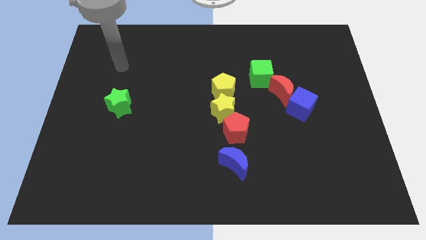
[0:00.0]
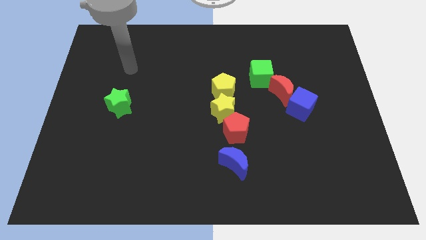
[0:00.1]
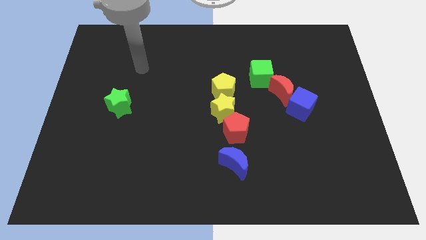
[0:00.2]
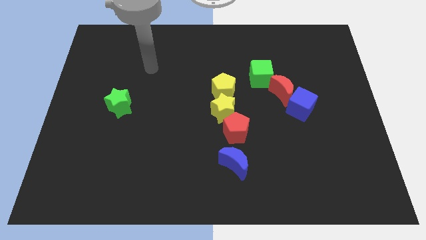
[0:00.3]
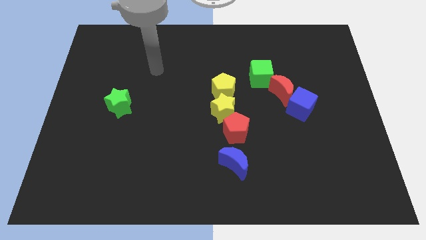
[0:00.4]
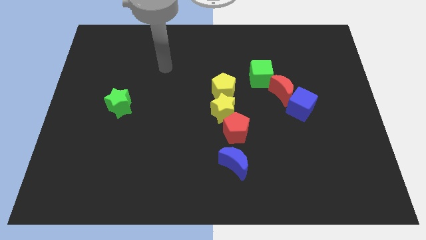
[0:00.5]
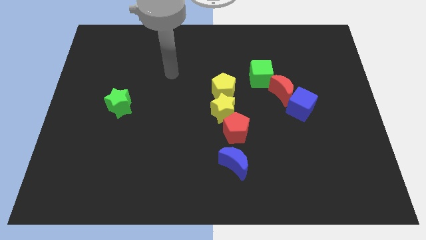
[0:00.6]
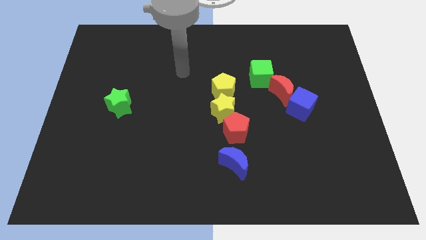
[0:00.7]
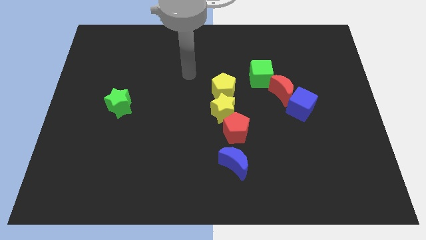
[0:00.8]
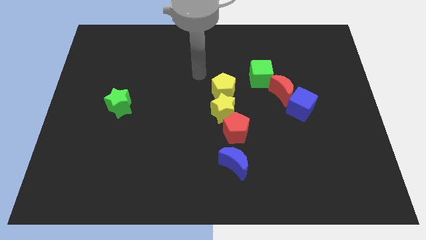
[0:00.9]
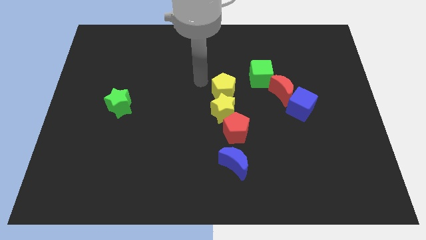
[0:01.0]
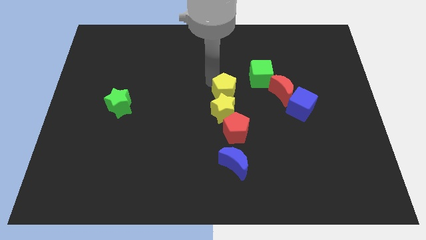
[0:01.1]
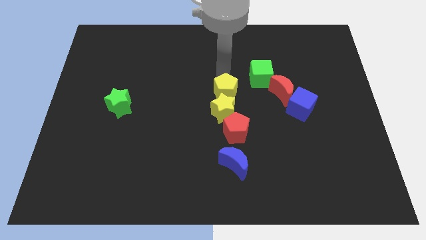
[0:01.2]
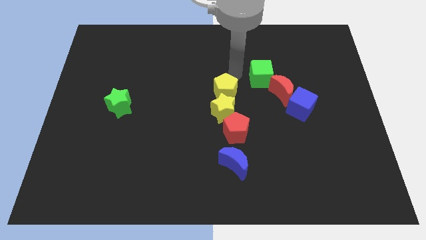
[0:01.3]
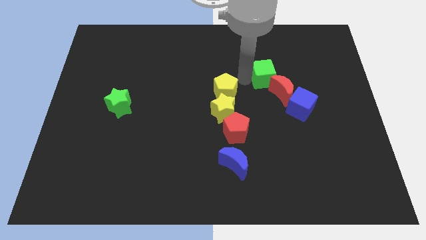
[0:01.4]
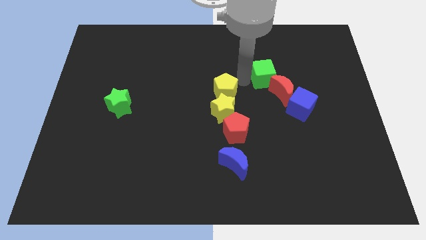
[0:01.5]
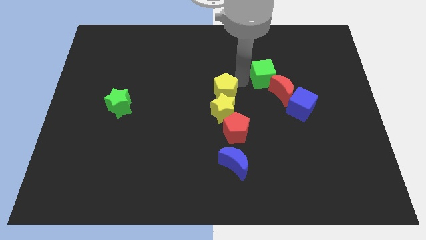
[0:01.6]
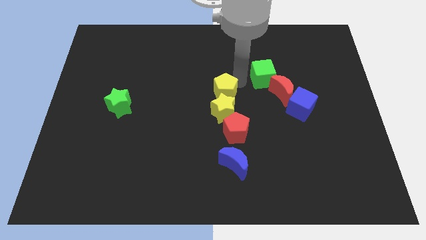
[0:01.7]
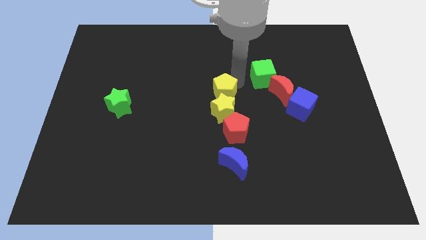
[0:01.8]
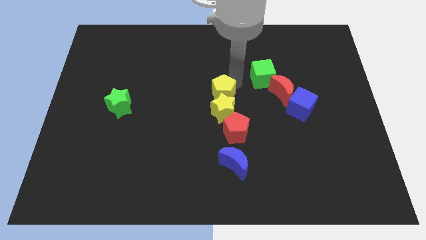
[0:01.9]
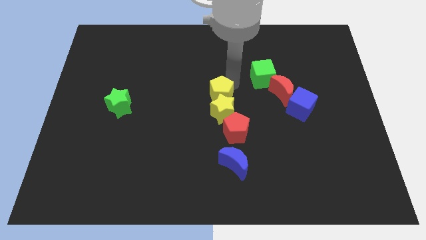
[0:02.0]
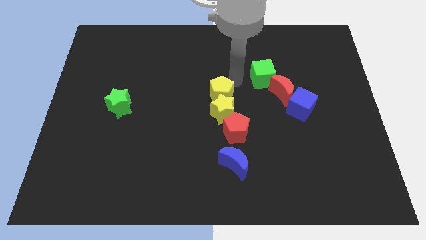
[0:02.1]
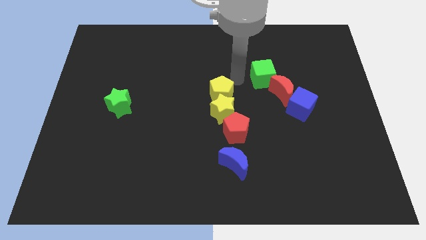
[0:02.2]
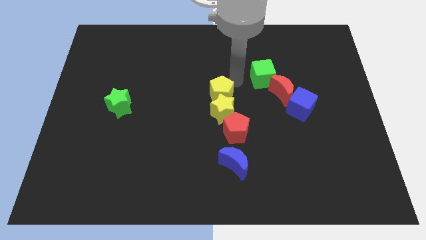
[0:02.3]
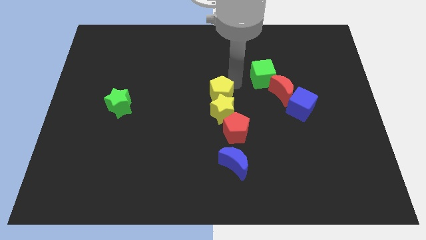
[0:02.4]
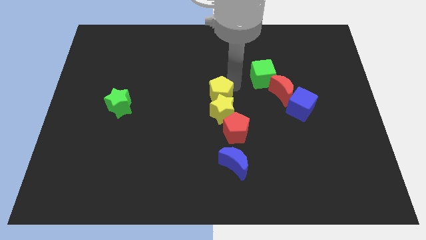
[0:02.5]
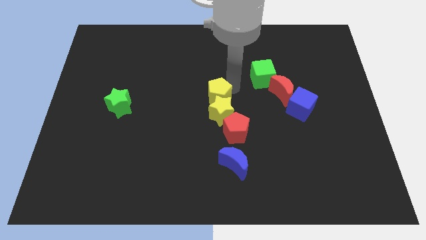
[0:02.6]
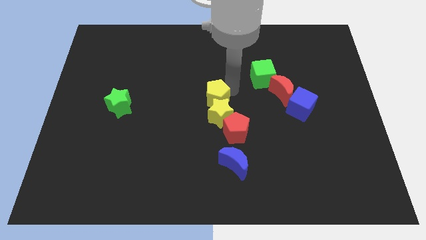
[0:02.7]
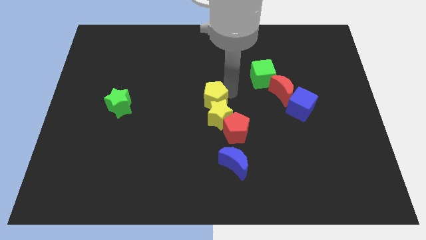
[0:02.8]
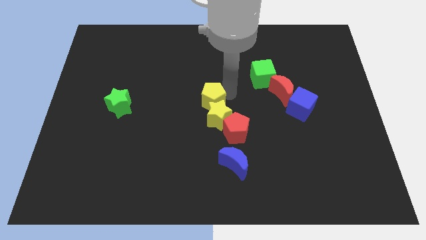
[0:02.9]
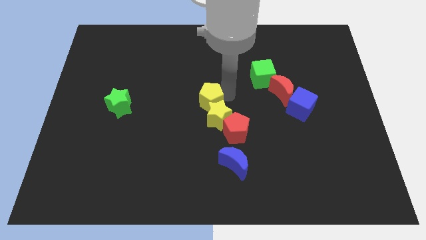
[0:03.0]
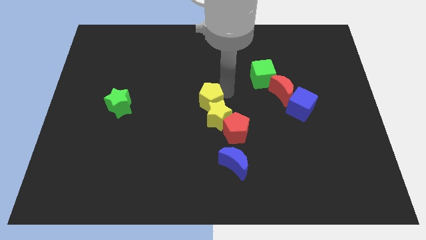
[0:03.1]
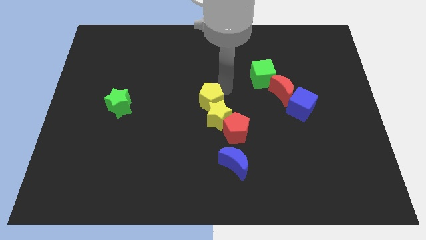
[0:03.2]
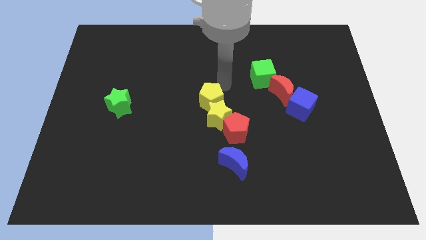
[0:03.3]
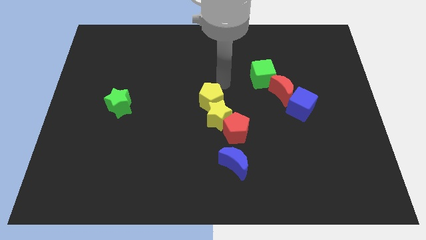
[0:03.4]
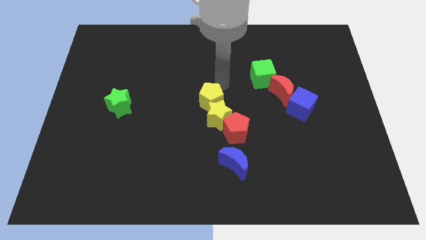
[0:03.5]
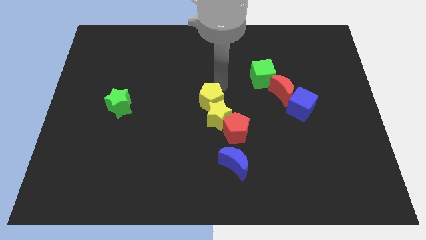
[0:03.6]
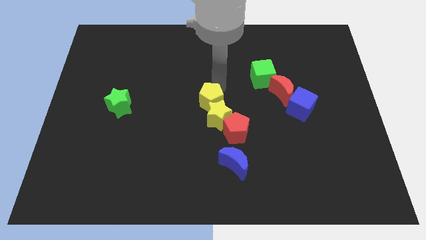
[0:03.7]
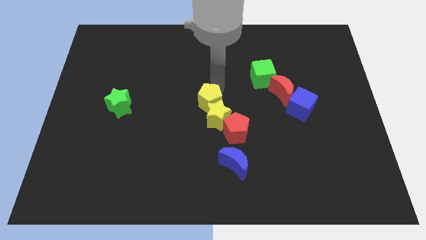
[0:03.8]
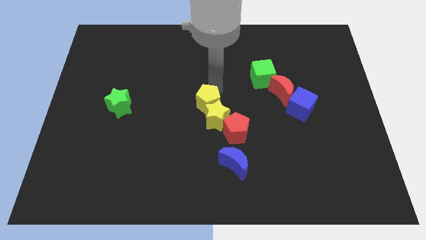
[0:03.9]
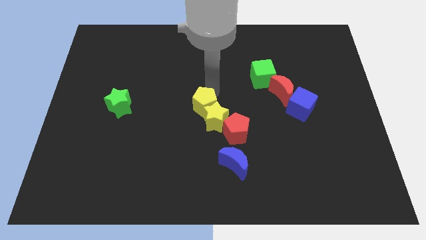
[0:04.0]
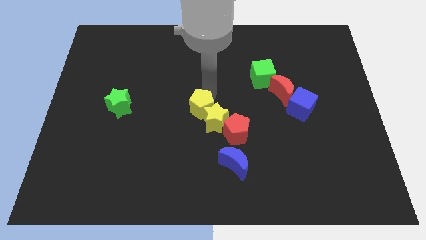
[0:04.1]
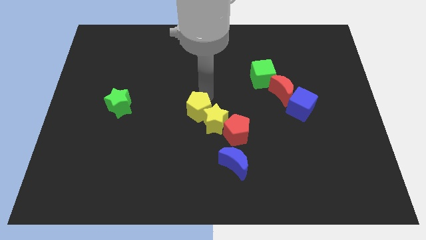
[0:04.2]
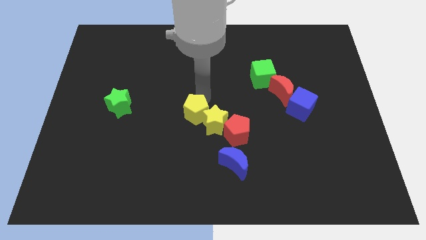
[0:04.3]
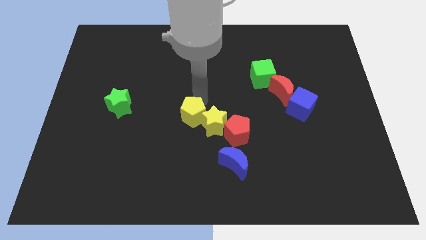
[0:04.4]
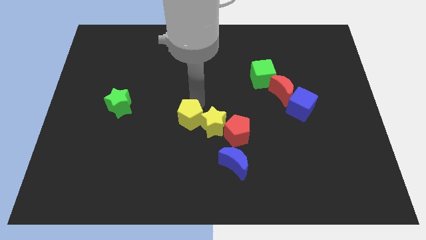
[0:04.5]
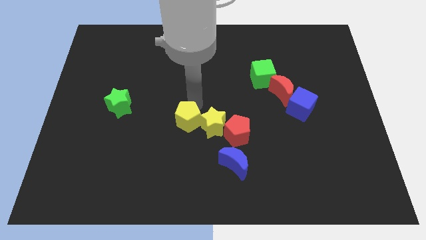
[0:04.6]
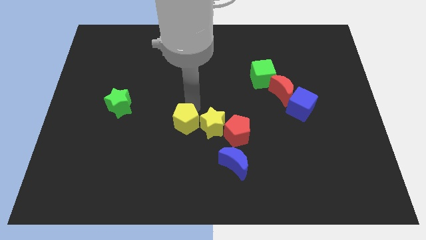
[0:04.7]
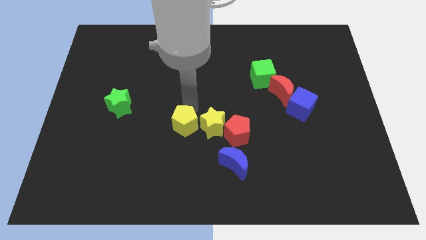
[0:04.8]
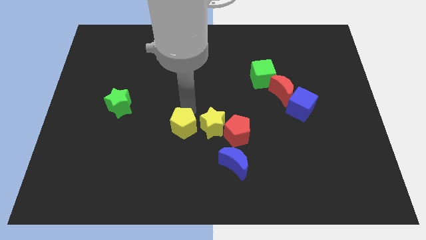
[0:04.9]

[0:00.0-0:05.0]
move the yellow pentagon to the bottom left of the yellow star

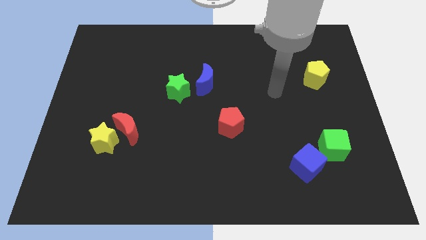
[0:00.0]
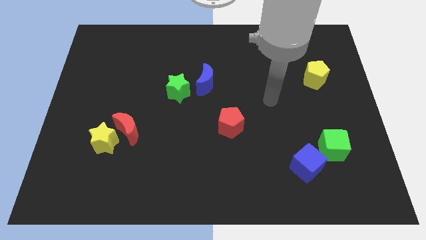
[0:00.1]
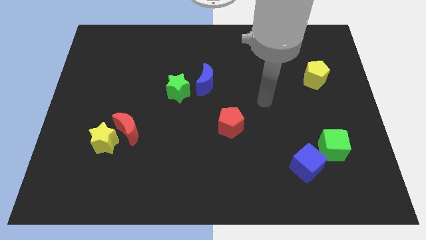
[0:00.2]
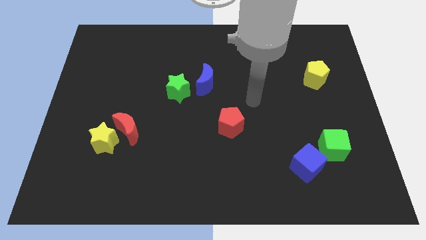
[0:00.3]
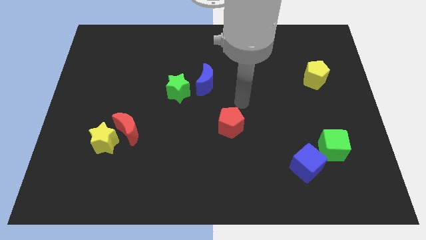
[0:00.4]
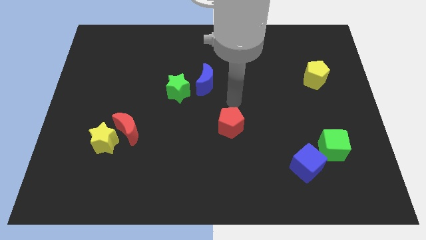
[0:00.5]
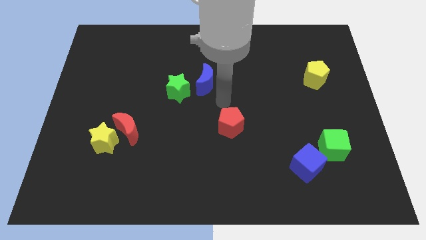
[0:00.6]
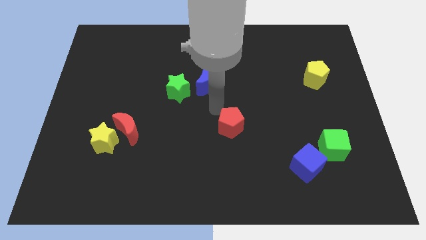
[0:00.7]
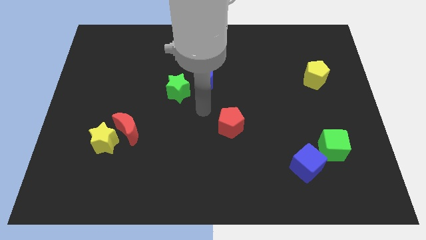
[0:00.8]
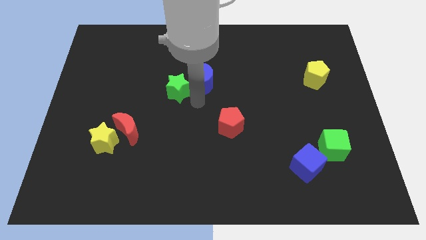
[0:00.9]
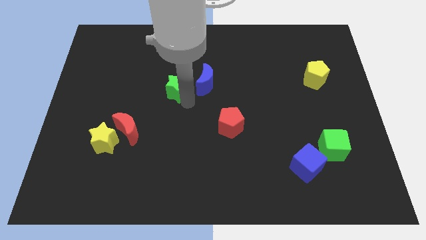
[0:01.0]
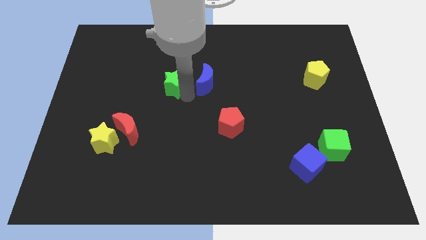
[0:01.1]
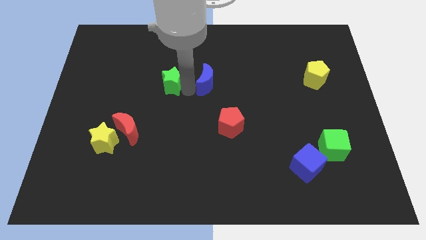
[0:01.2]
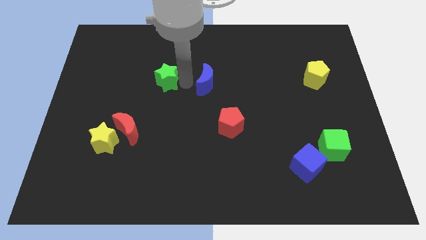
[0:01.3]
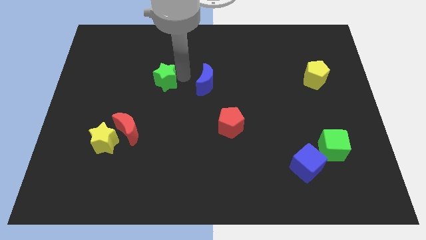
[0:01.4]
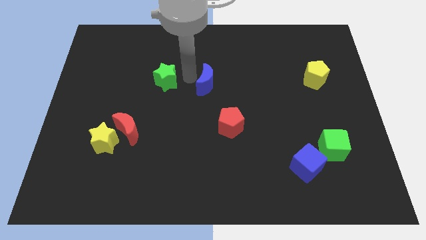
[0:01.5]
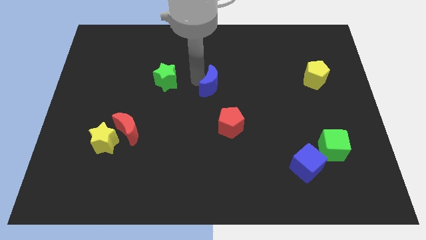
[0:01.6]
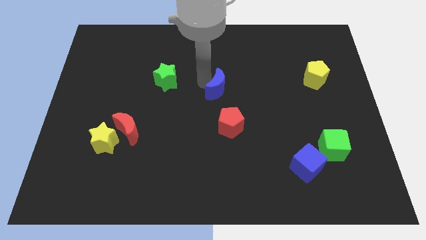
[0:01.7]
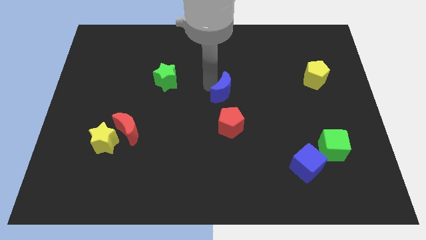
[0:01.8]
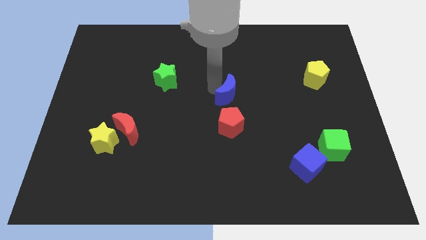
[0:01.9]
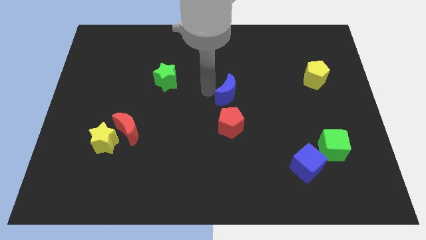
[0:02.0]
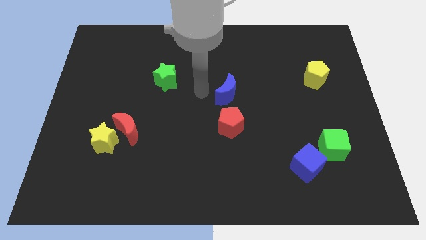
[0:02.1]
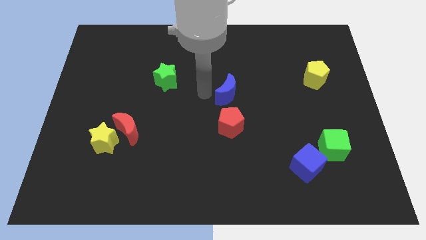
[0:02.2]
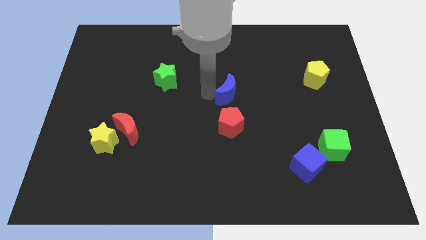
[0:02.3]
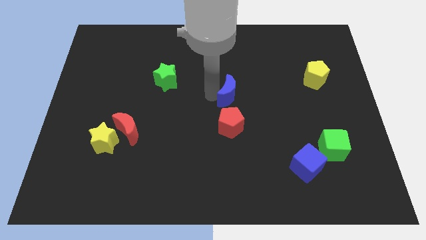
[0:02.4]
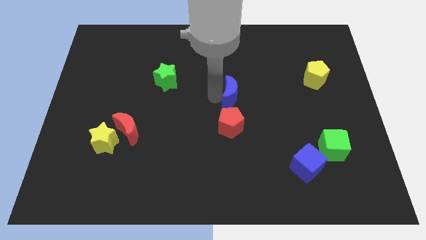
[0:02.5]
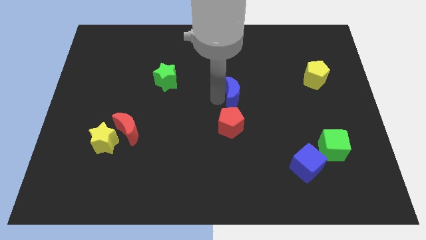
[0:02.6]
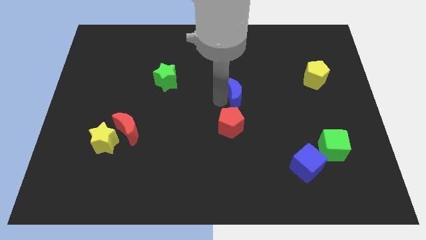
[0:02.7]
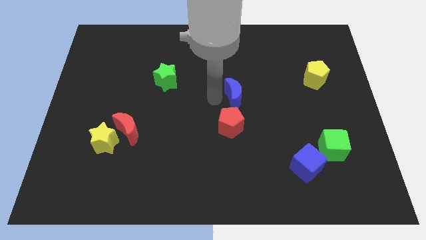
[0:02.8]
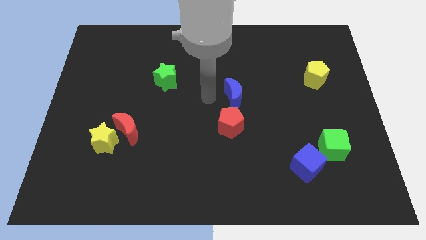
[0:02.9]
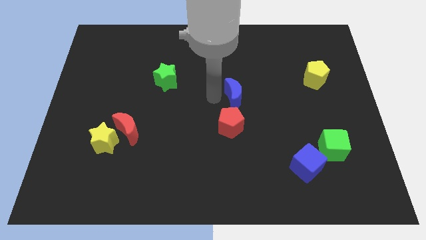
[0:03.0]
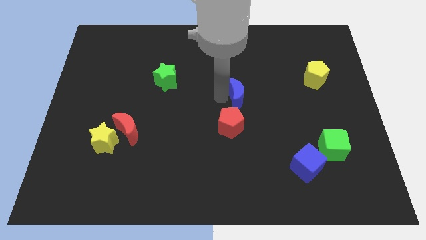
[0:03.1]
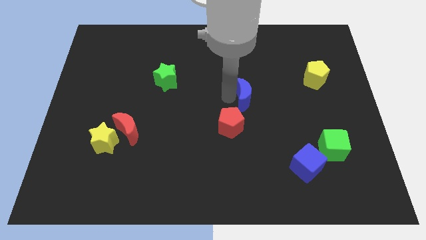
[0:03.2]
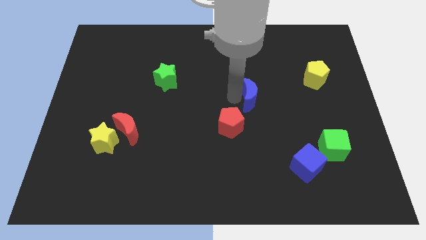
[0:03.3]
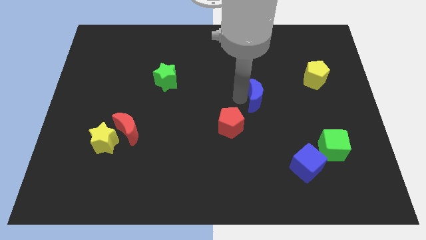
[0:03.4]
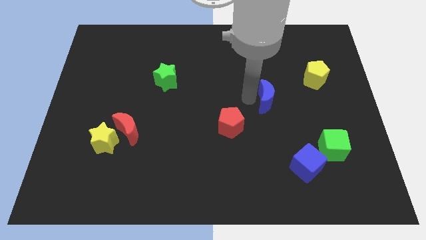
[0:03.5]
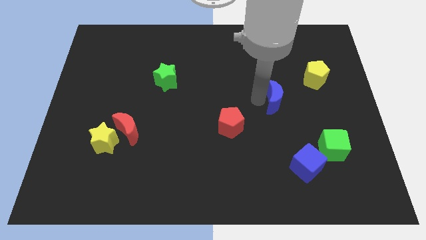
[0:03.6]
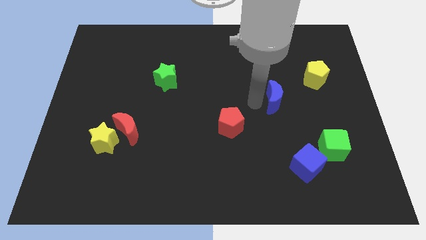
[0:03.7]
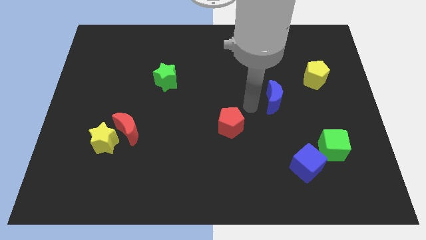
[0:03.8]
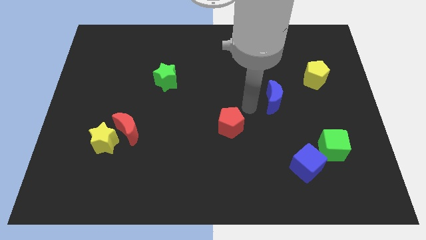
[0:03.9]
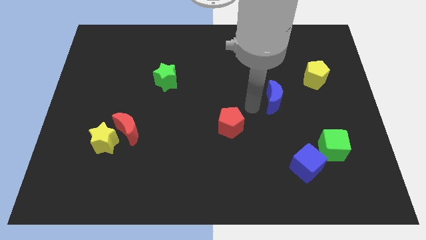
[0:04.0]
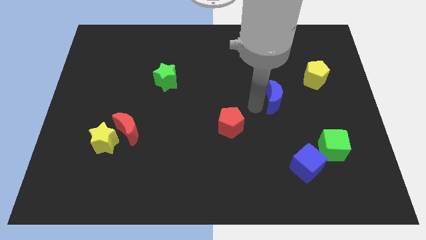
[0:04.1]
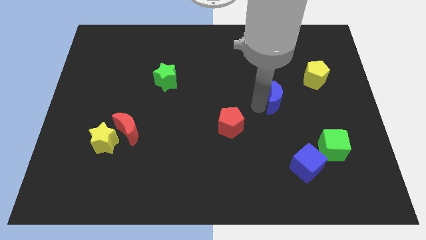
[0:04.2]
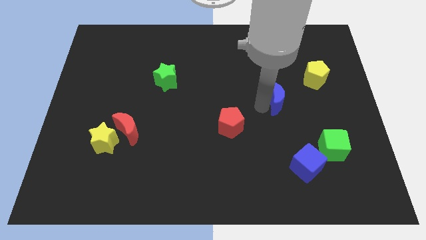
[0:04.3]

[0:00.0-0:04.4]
put the blue moon to the bottom left of the yellow pentagon
